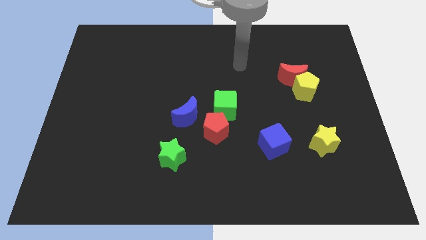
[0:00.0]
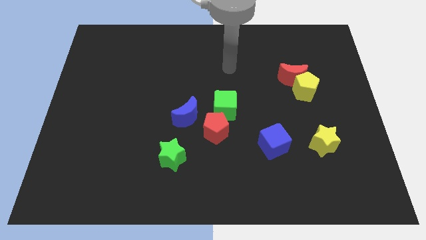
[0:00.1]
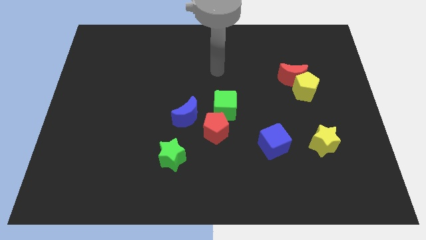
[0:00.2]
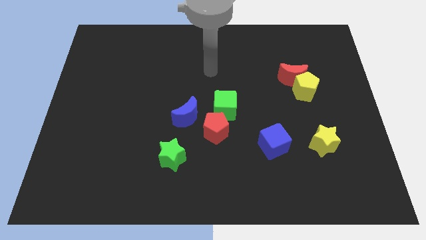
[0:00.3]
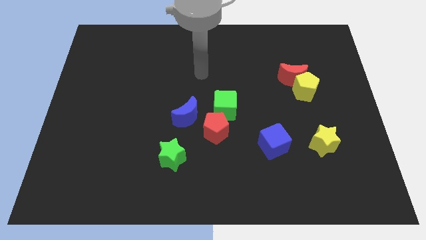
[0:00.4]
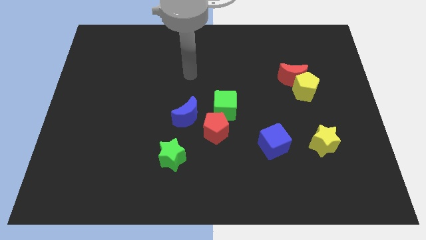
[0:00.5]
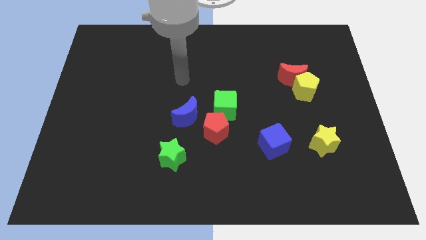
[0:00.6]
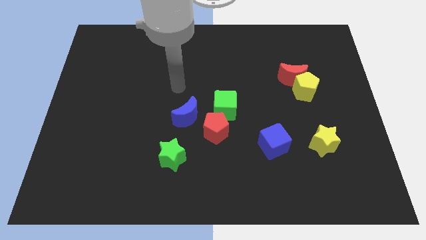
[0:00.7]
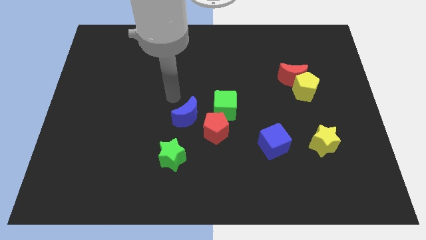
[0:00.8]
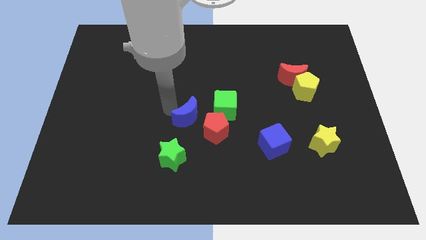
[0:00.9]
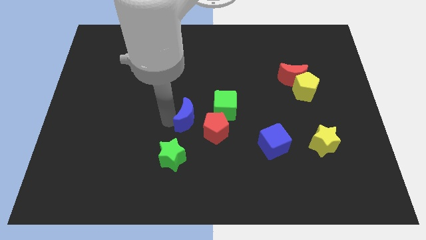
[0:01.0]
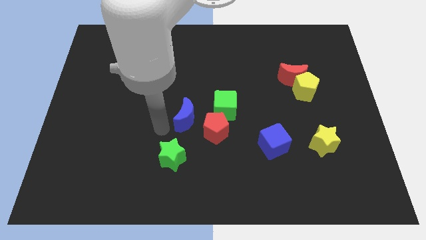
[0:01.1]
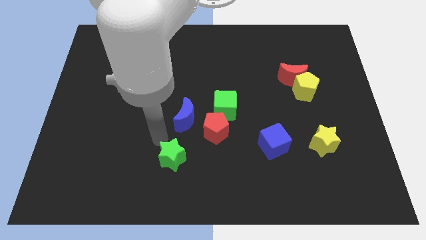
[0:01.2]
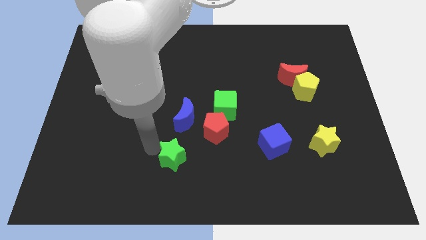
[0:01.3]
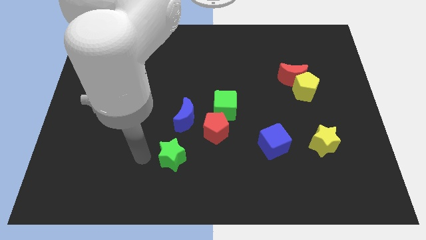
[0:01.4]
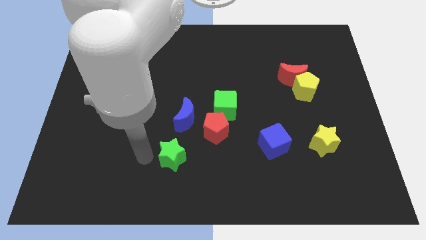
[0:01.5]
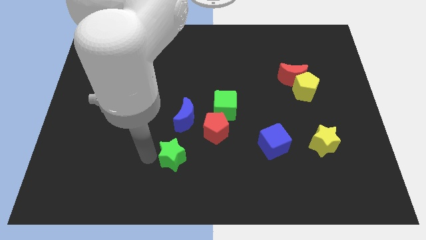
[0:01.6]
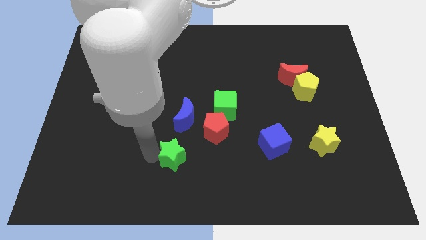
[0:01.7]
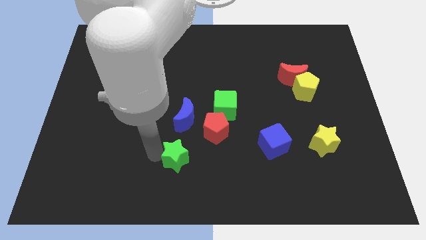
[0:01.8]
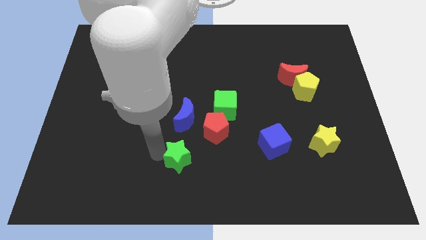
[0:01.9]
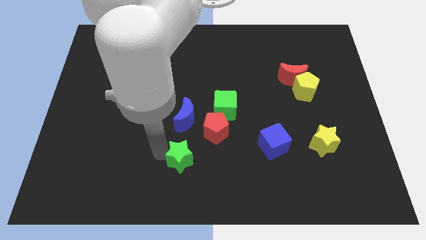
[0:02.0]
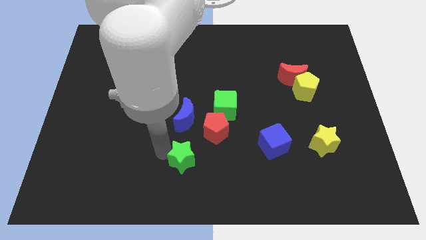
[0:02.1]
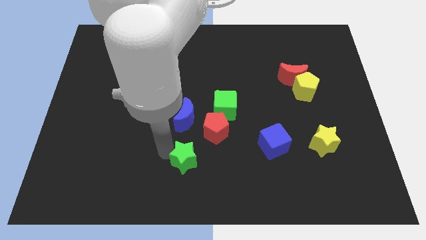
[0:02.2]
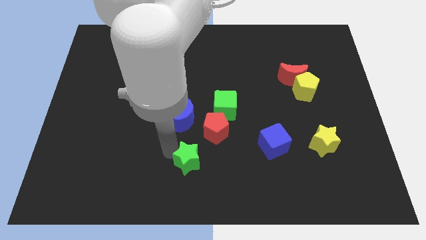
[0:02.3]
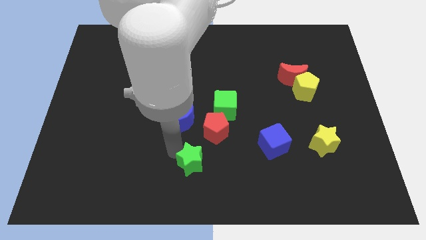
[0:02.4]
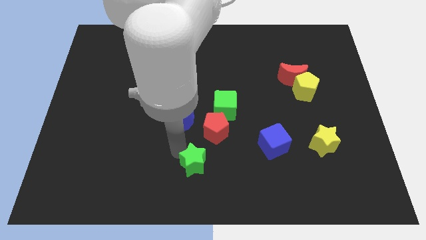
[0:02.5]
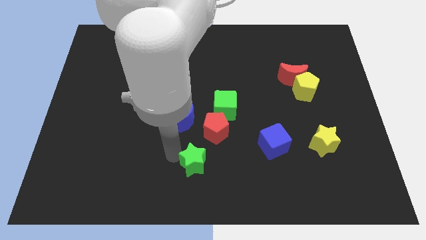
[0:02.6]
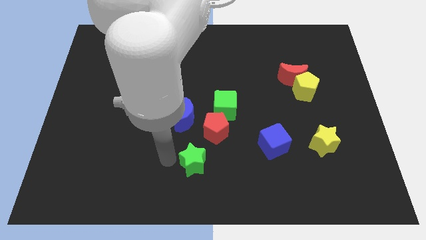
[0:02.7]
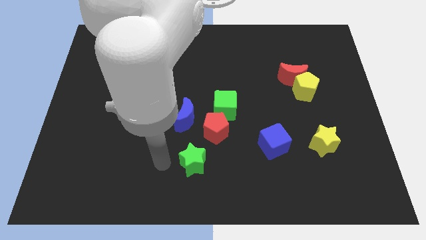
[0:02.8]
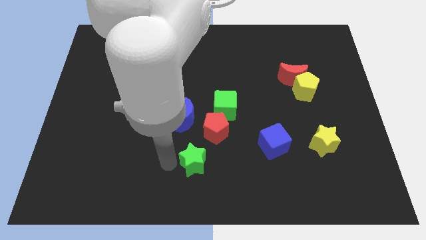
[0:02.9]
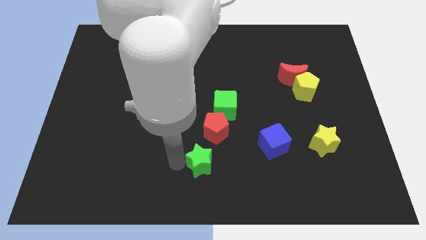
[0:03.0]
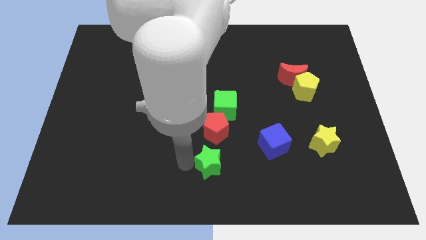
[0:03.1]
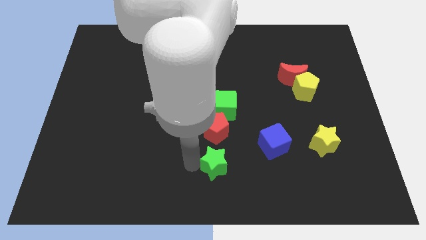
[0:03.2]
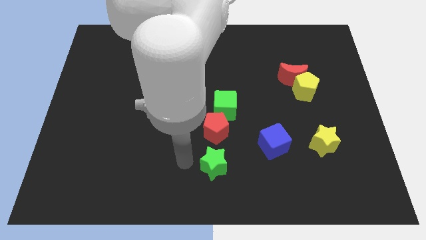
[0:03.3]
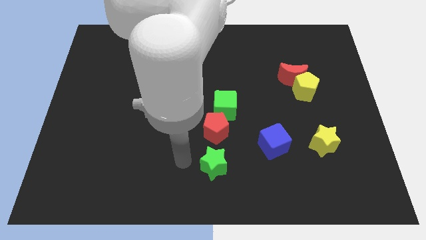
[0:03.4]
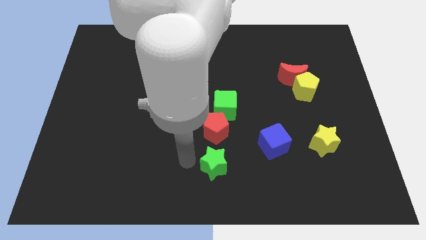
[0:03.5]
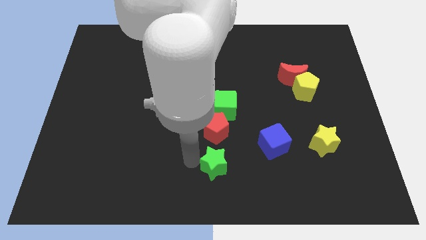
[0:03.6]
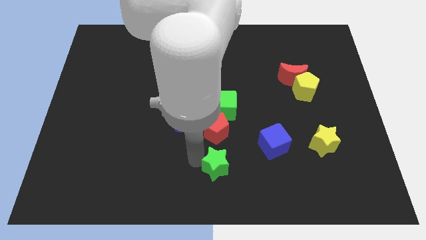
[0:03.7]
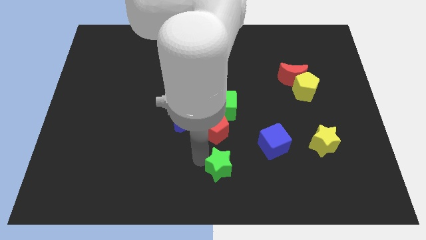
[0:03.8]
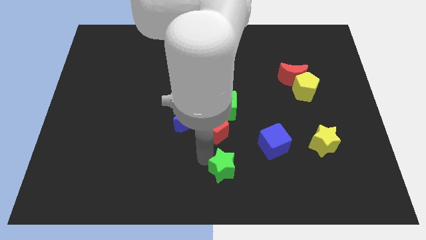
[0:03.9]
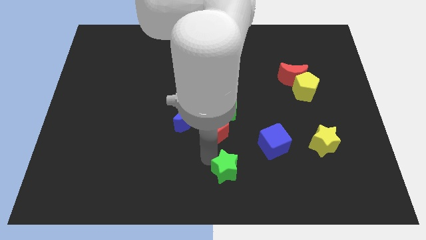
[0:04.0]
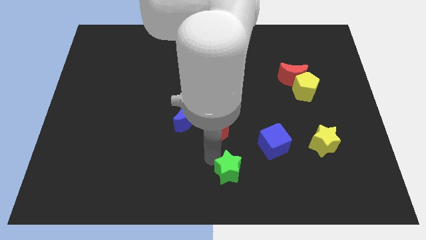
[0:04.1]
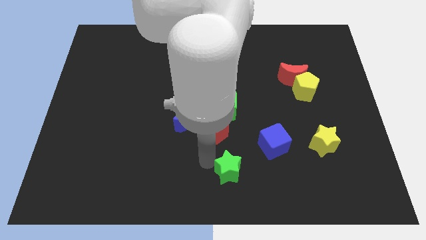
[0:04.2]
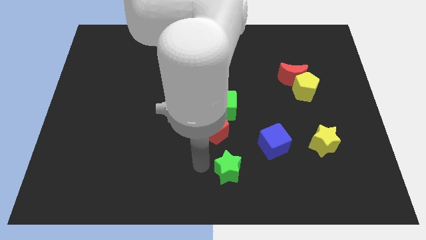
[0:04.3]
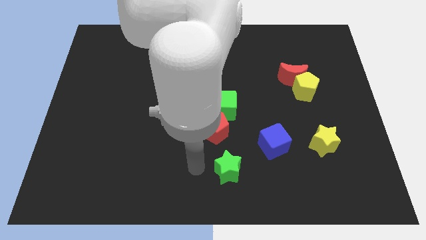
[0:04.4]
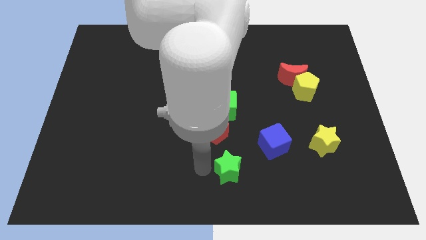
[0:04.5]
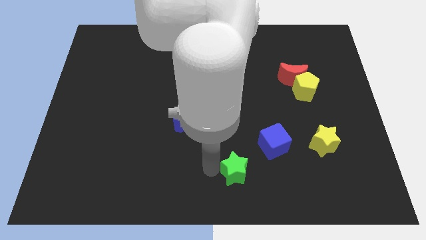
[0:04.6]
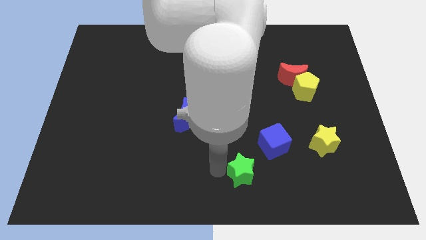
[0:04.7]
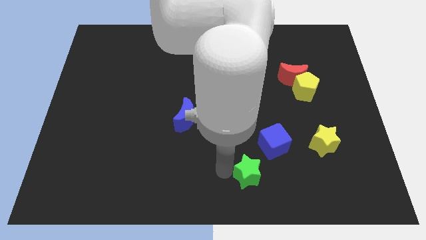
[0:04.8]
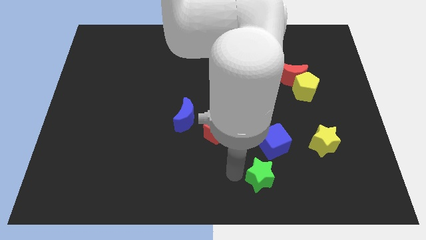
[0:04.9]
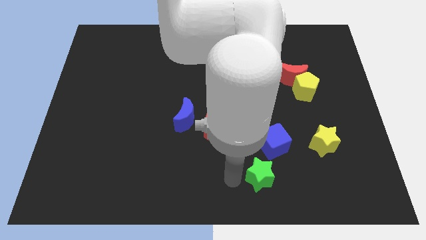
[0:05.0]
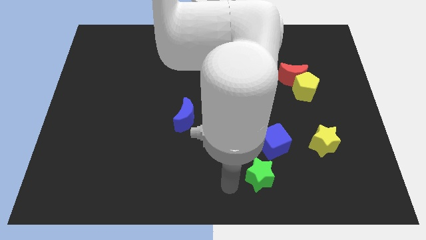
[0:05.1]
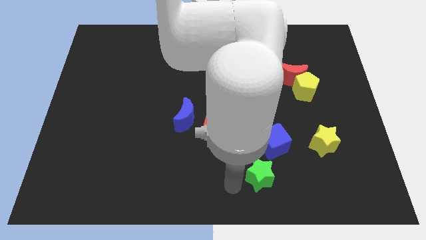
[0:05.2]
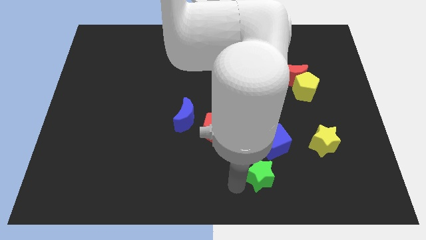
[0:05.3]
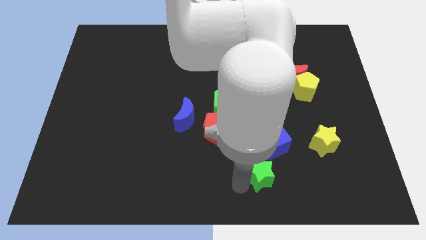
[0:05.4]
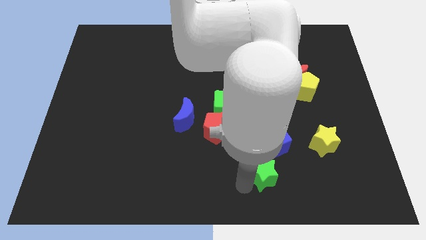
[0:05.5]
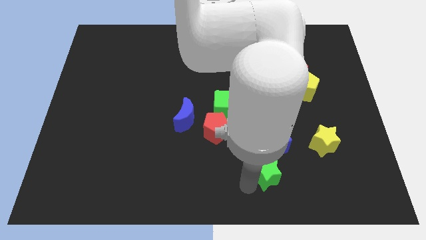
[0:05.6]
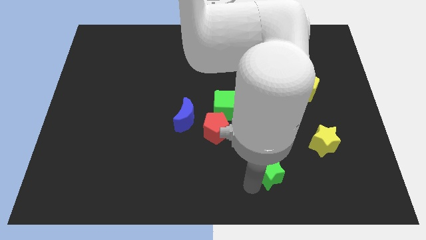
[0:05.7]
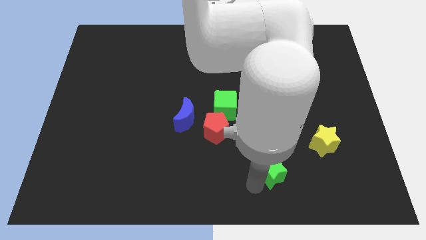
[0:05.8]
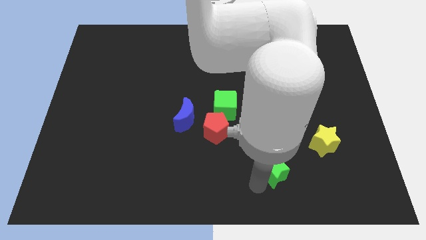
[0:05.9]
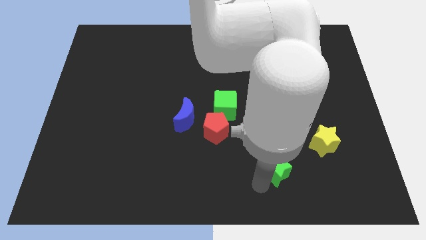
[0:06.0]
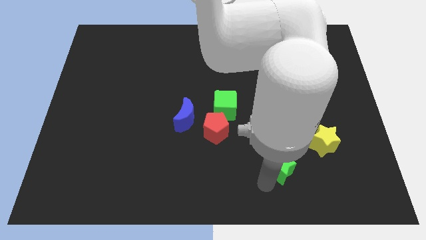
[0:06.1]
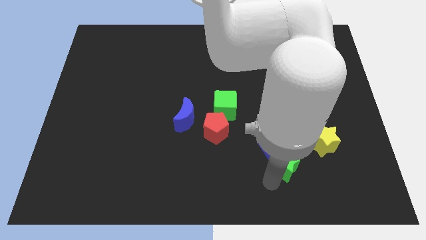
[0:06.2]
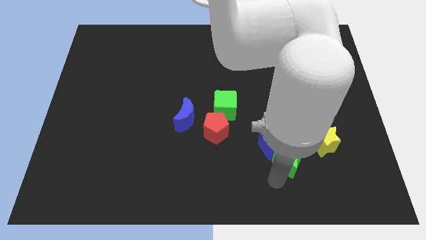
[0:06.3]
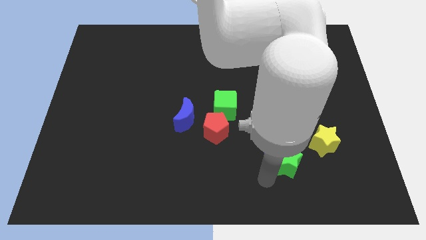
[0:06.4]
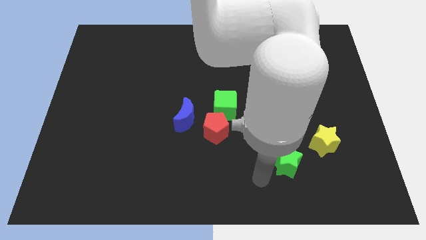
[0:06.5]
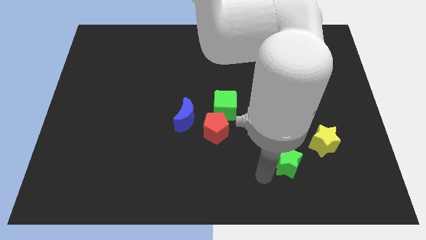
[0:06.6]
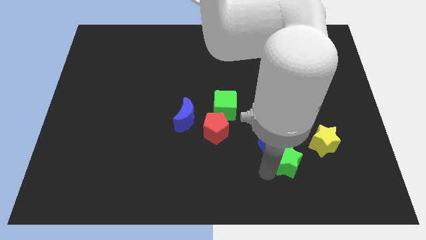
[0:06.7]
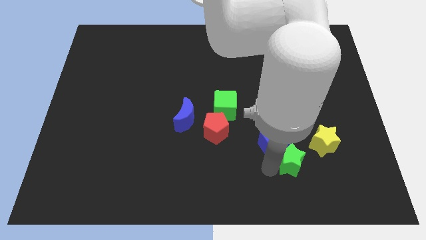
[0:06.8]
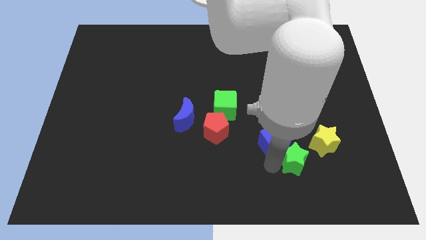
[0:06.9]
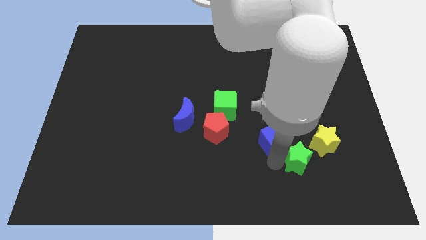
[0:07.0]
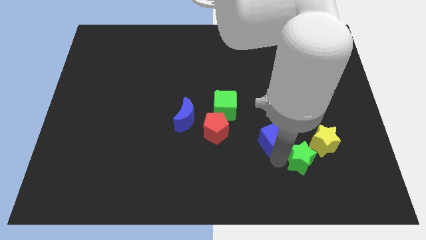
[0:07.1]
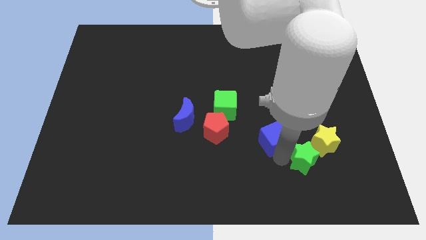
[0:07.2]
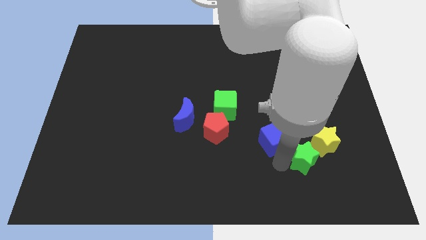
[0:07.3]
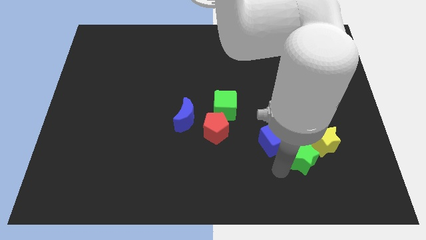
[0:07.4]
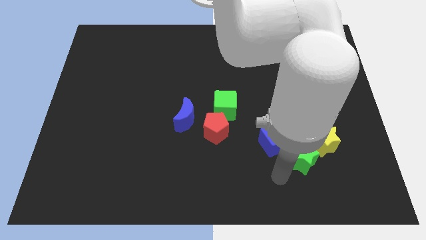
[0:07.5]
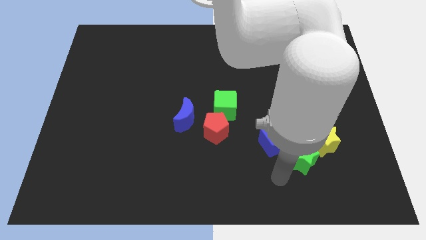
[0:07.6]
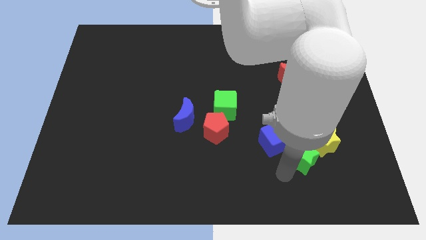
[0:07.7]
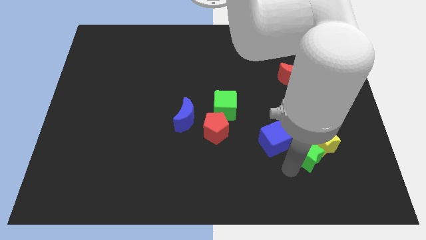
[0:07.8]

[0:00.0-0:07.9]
put the green star to the yellow star
